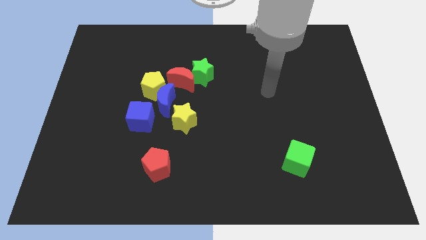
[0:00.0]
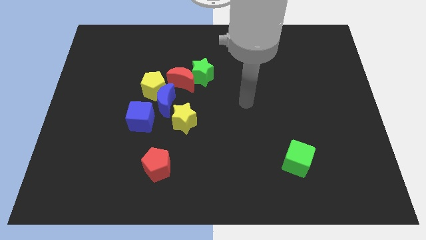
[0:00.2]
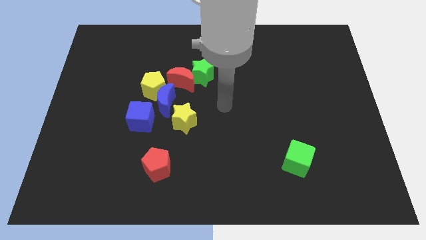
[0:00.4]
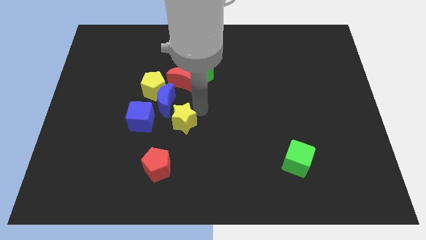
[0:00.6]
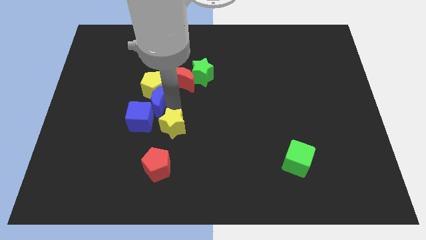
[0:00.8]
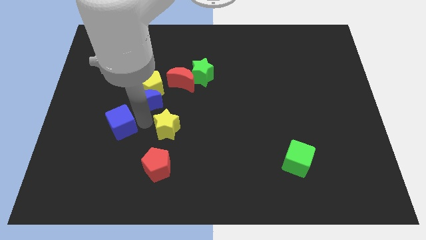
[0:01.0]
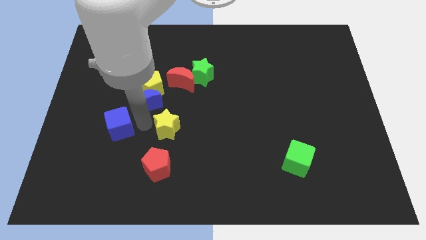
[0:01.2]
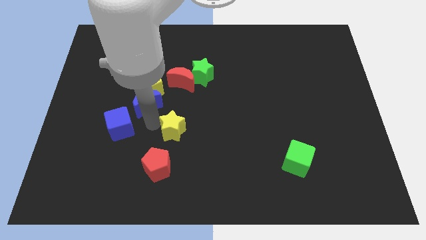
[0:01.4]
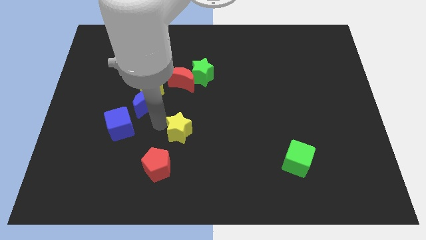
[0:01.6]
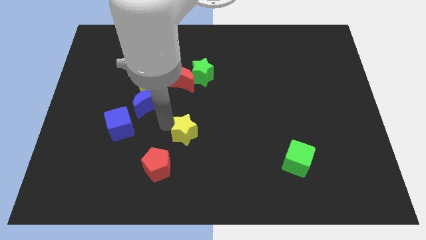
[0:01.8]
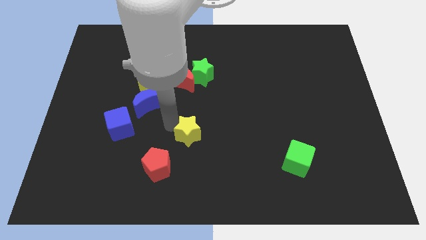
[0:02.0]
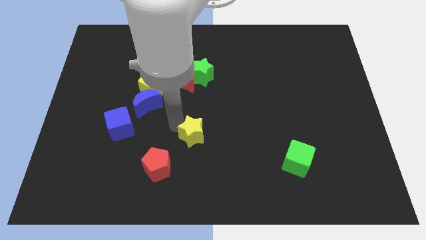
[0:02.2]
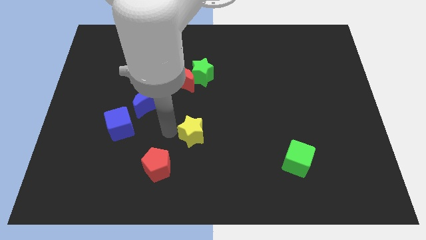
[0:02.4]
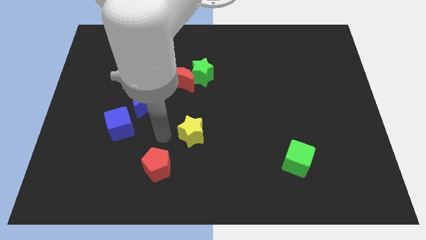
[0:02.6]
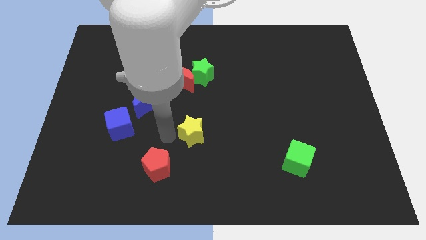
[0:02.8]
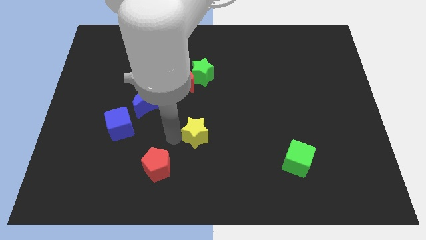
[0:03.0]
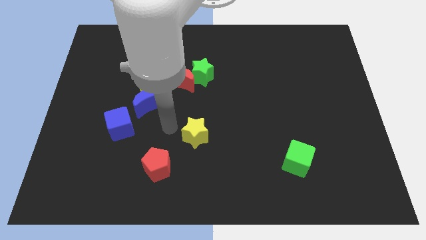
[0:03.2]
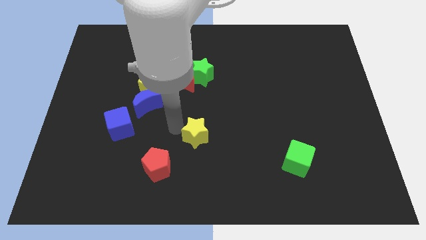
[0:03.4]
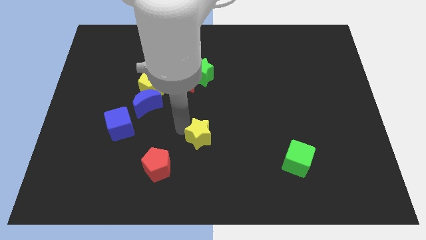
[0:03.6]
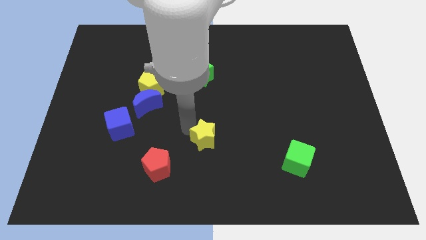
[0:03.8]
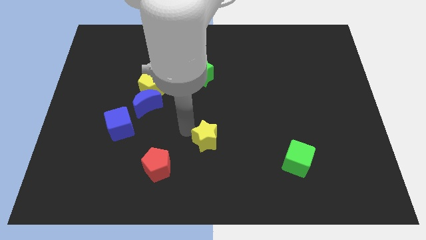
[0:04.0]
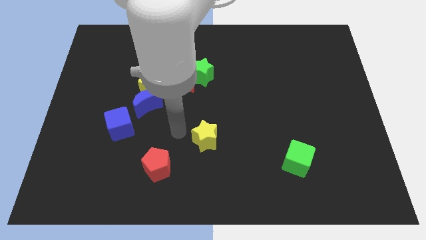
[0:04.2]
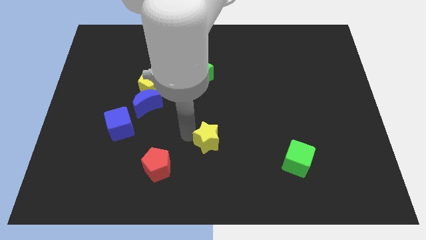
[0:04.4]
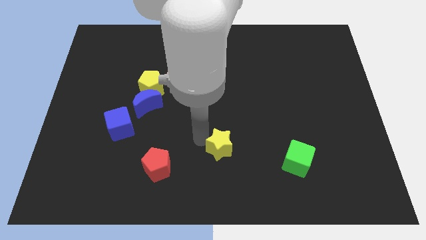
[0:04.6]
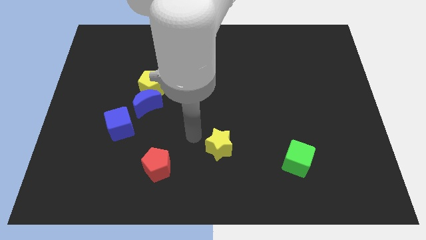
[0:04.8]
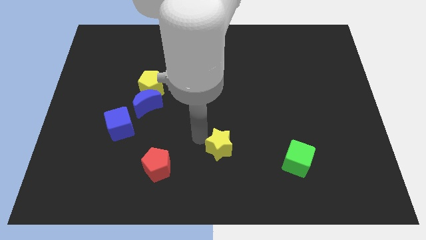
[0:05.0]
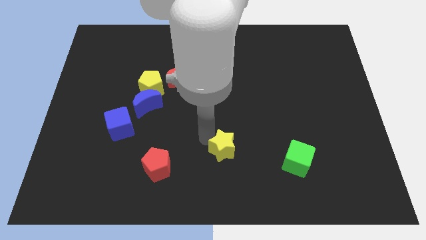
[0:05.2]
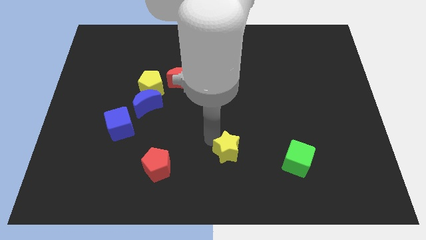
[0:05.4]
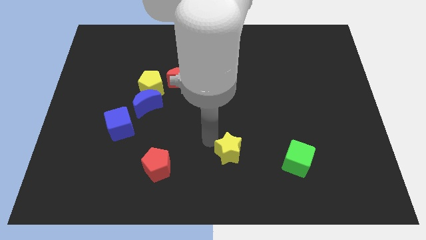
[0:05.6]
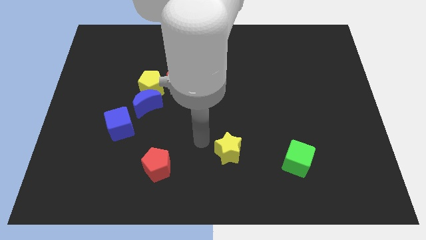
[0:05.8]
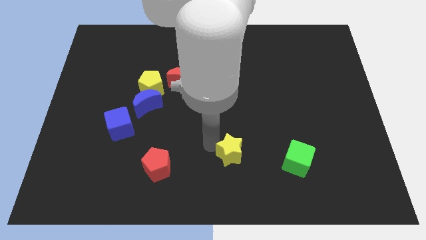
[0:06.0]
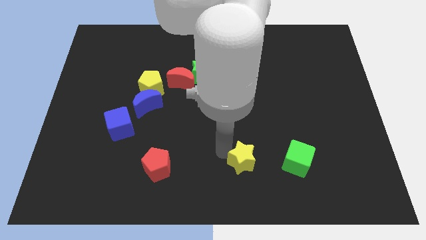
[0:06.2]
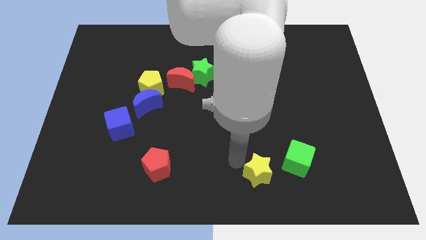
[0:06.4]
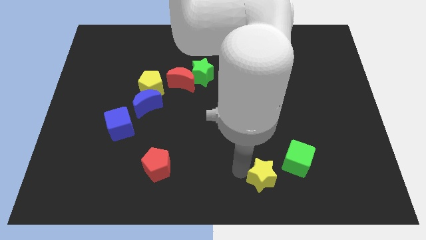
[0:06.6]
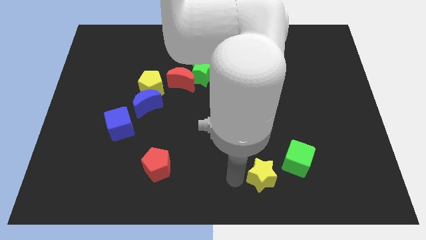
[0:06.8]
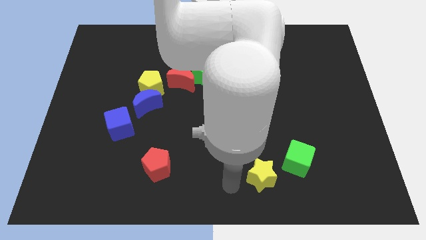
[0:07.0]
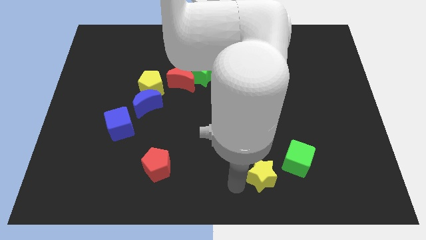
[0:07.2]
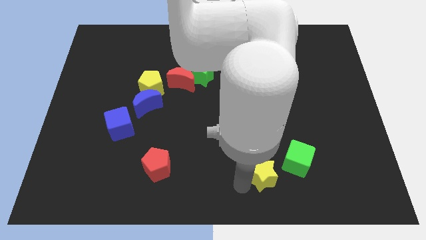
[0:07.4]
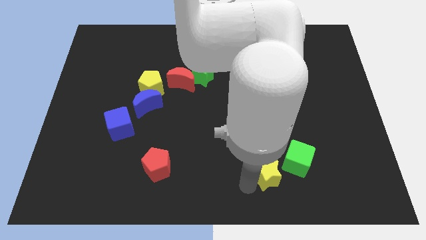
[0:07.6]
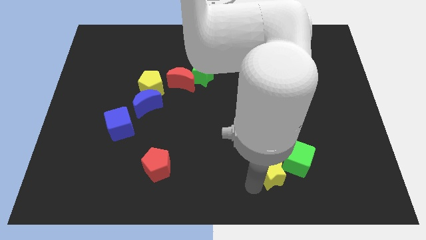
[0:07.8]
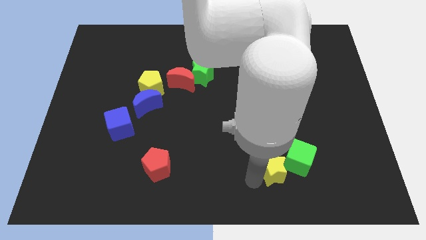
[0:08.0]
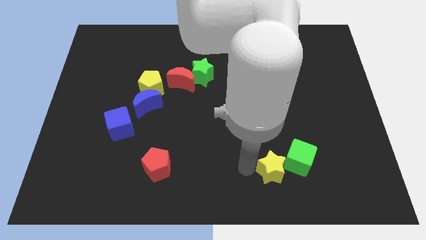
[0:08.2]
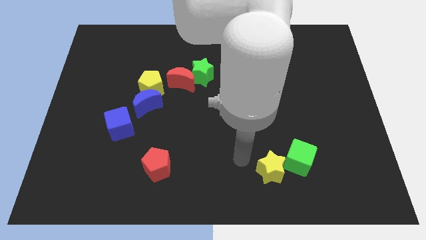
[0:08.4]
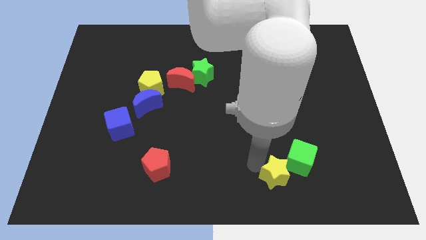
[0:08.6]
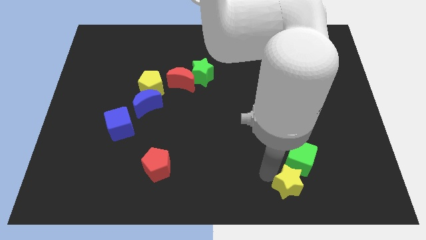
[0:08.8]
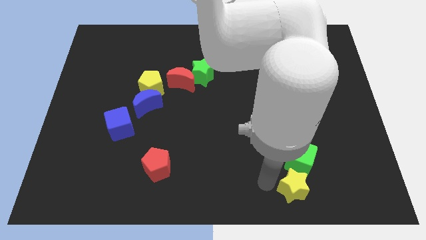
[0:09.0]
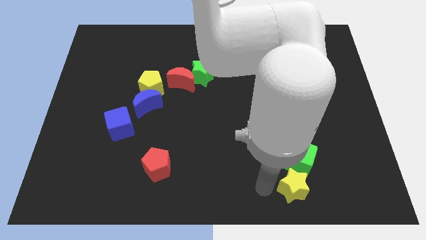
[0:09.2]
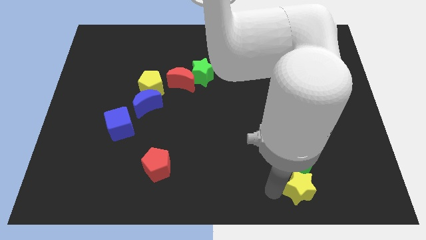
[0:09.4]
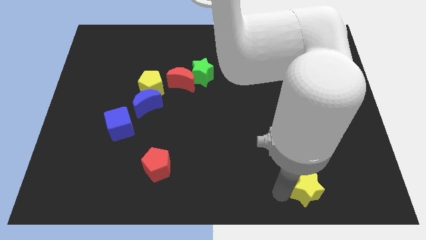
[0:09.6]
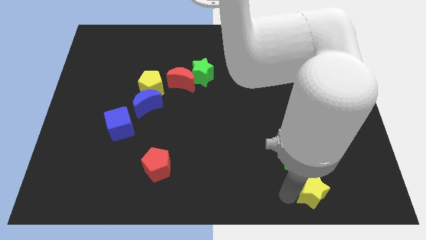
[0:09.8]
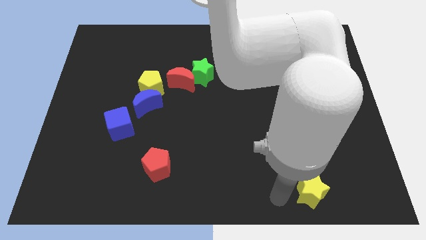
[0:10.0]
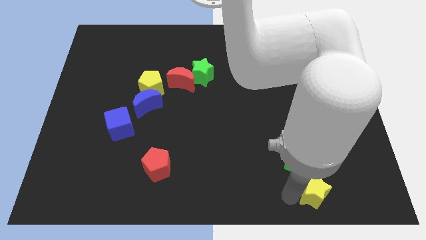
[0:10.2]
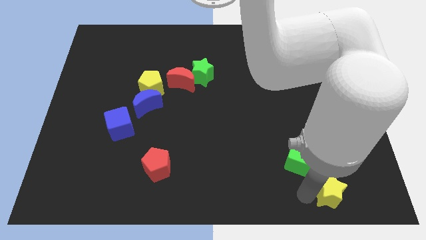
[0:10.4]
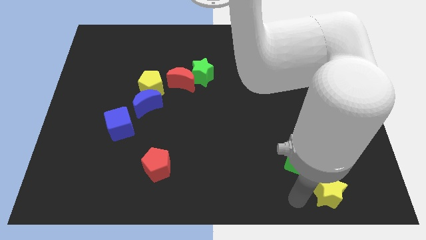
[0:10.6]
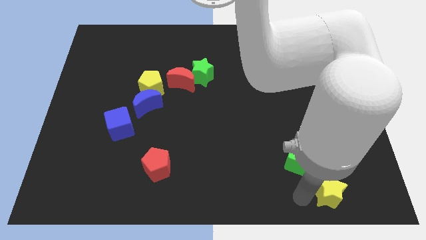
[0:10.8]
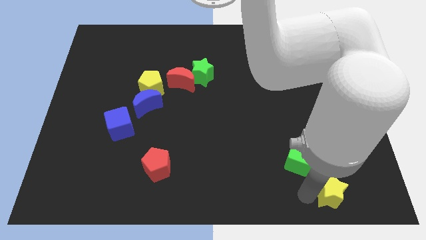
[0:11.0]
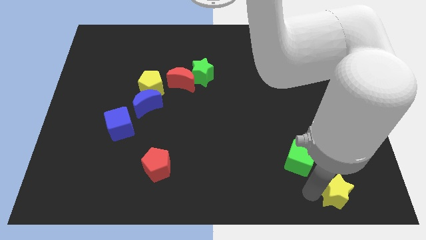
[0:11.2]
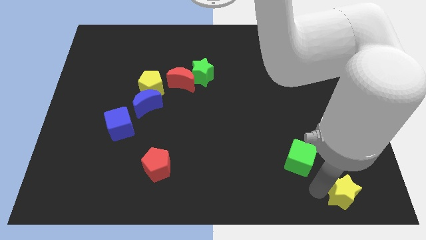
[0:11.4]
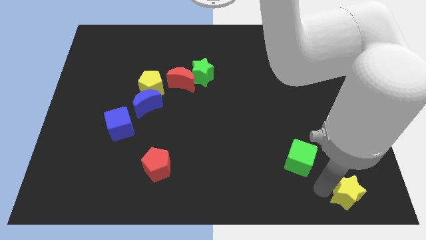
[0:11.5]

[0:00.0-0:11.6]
slide the yellow star to the bottom right corner

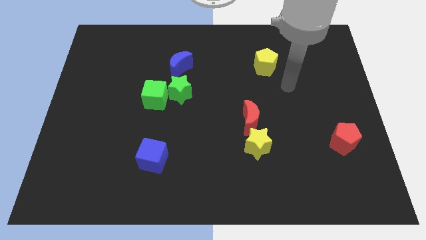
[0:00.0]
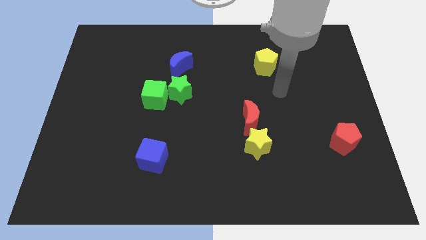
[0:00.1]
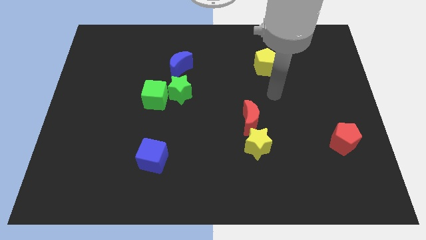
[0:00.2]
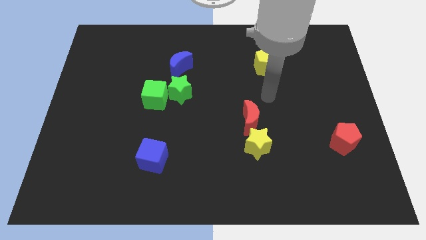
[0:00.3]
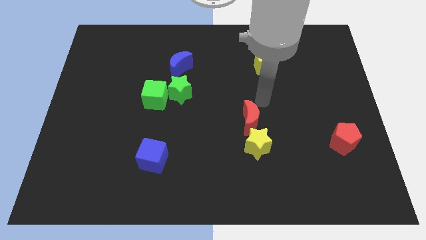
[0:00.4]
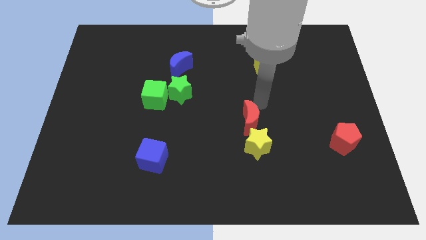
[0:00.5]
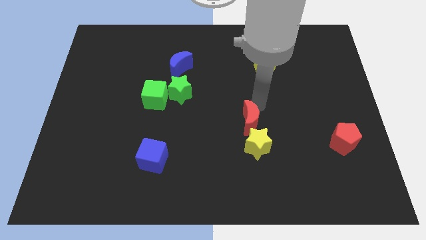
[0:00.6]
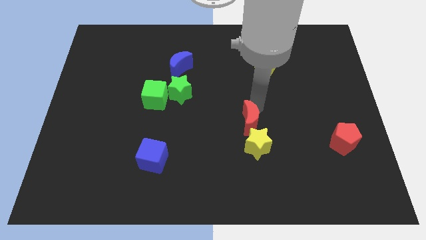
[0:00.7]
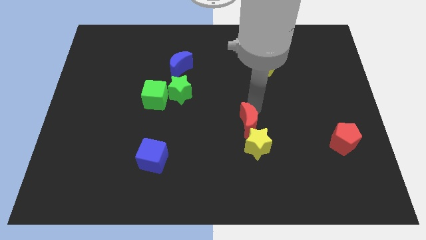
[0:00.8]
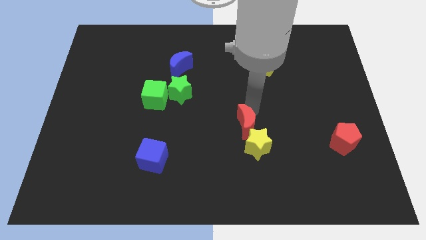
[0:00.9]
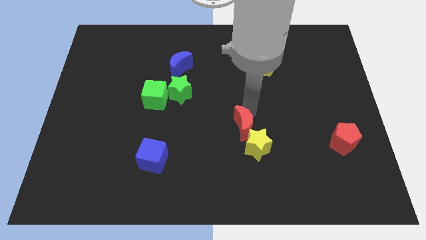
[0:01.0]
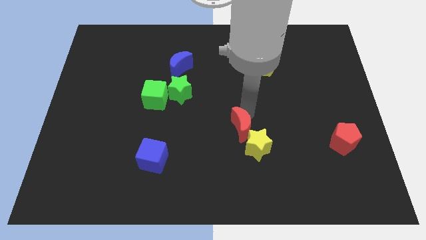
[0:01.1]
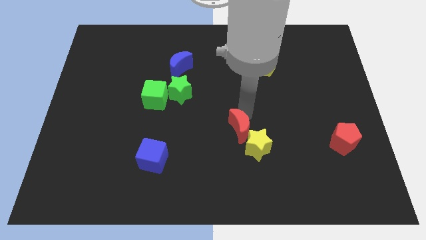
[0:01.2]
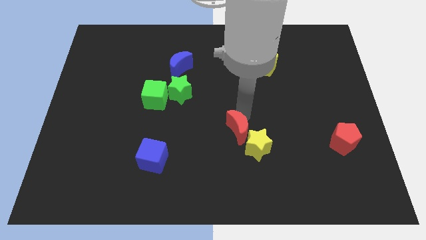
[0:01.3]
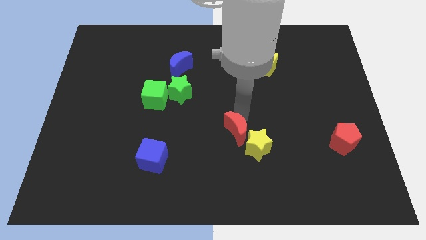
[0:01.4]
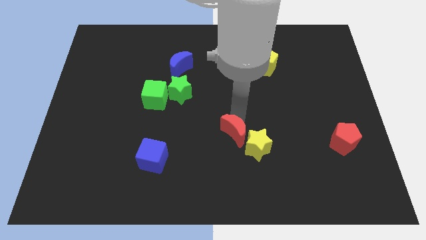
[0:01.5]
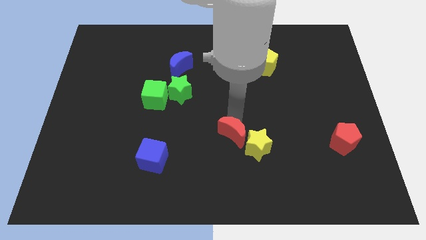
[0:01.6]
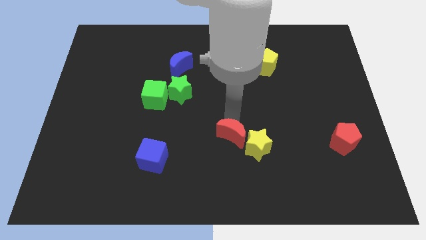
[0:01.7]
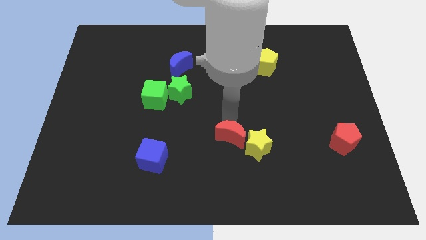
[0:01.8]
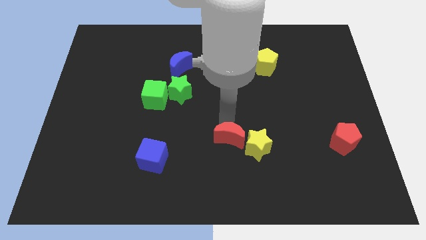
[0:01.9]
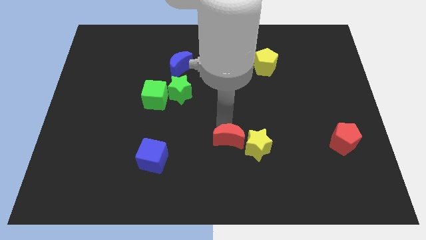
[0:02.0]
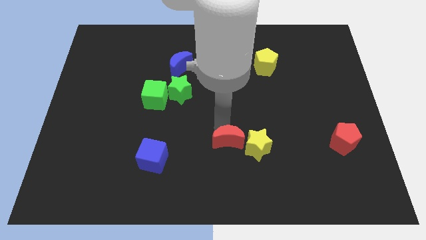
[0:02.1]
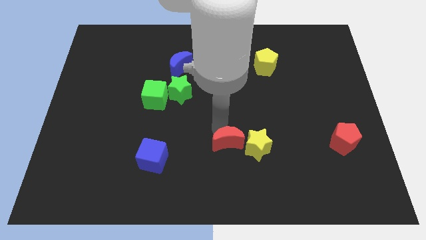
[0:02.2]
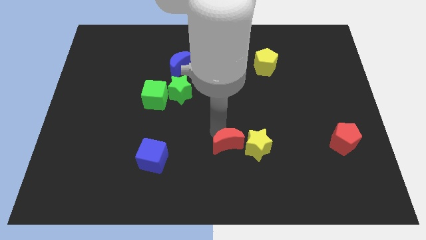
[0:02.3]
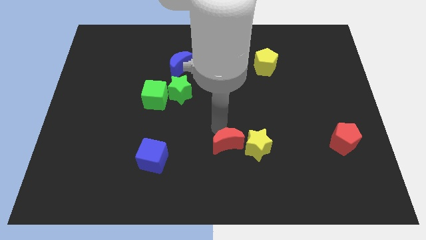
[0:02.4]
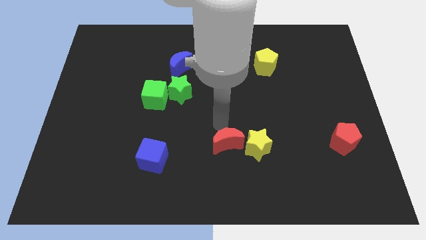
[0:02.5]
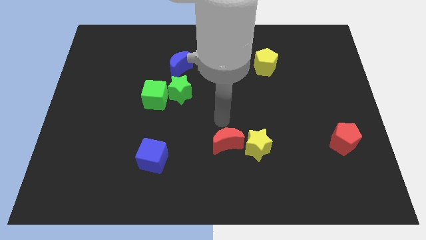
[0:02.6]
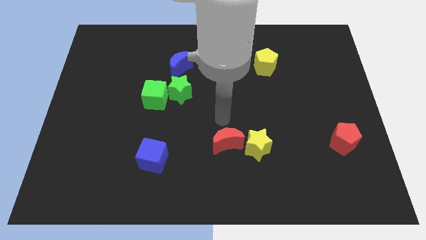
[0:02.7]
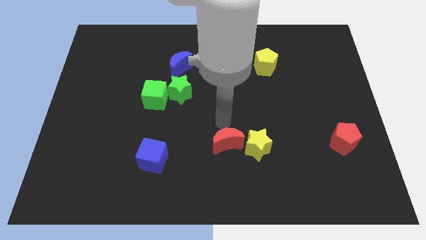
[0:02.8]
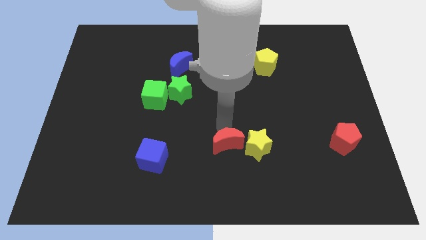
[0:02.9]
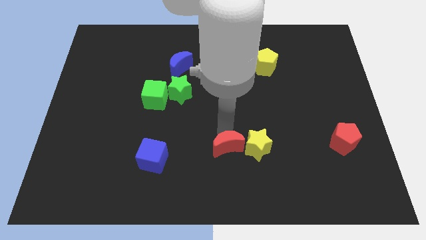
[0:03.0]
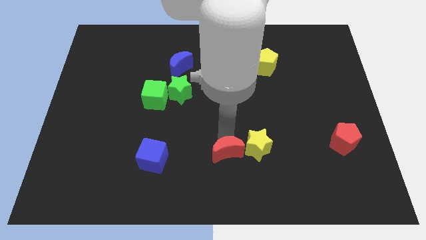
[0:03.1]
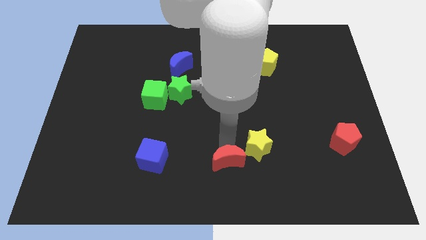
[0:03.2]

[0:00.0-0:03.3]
slide the red moon to the bottom side
